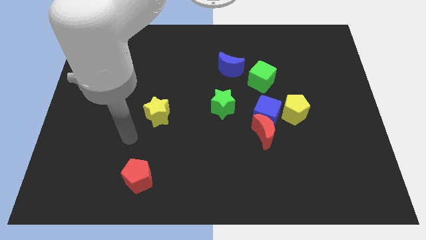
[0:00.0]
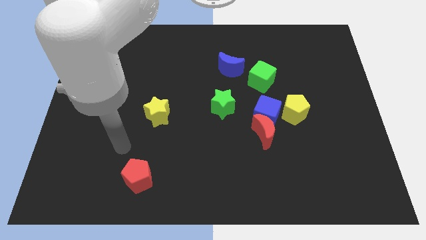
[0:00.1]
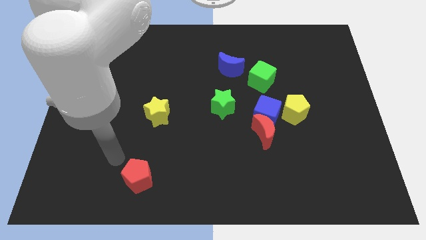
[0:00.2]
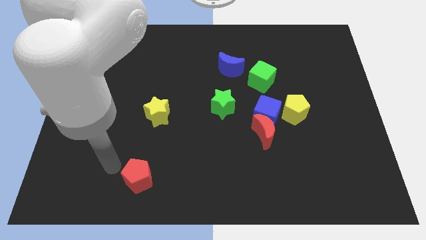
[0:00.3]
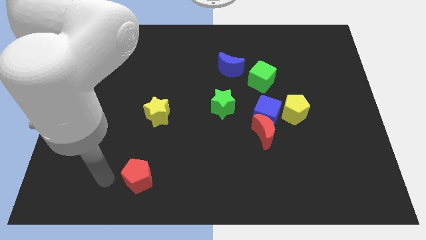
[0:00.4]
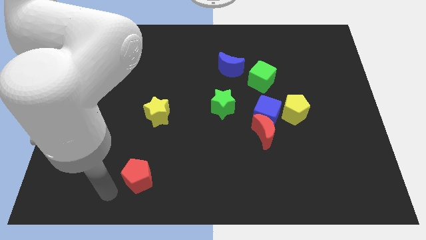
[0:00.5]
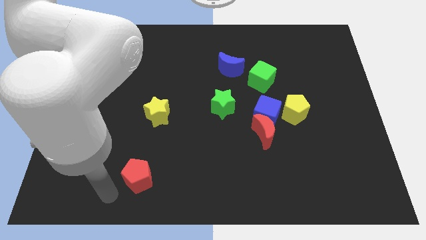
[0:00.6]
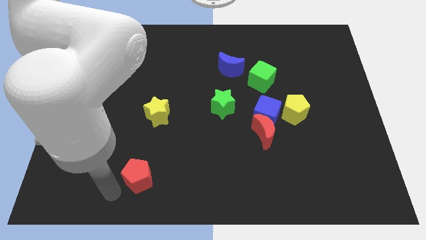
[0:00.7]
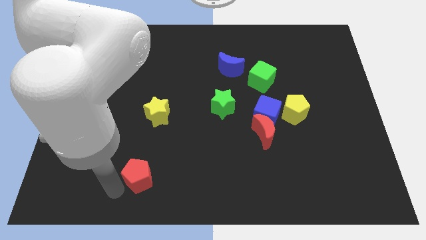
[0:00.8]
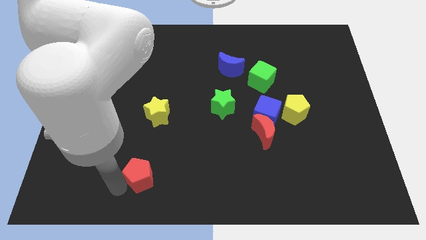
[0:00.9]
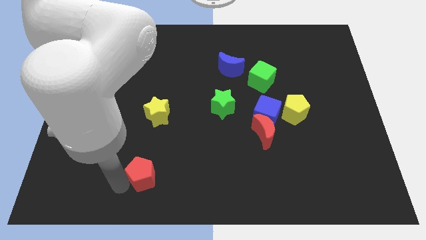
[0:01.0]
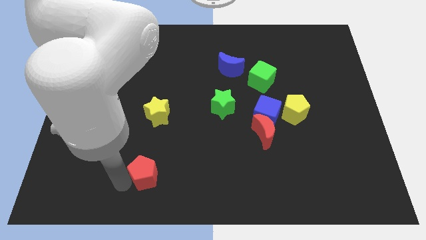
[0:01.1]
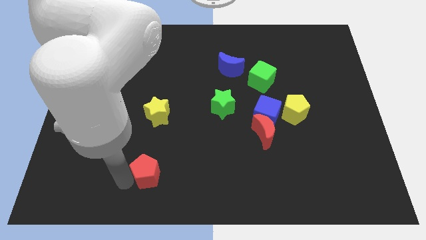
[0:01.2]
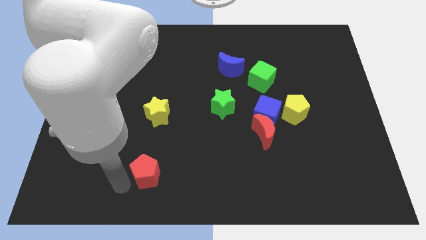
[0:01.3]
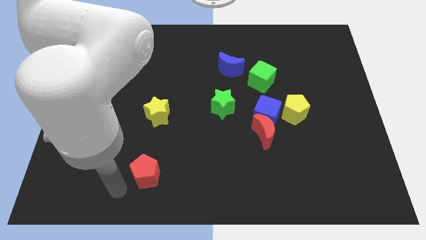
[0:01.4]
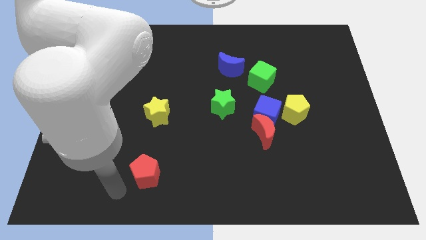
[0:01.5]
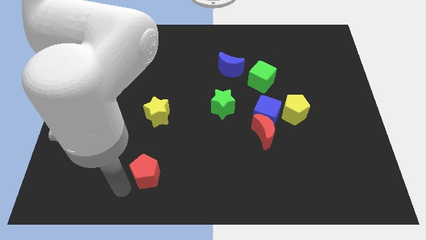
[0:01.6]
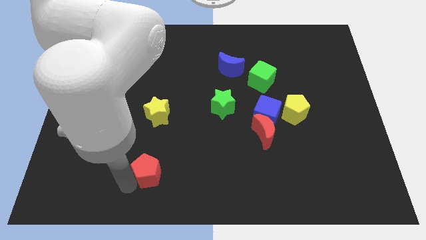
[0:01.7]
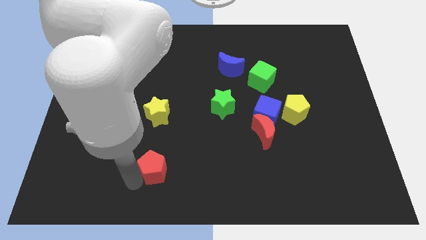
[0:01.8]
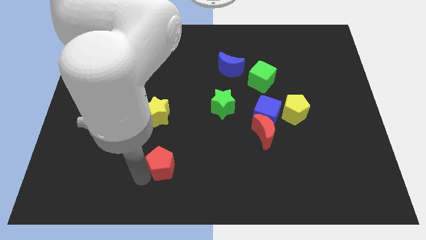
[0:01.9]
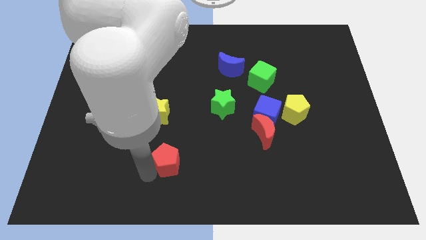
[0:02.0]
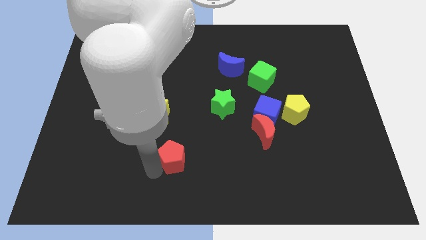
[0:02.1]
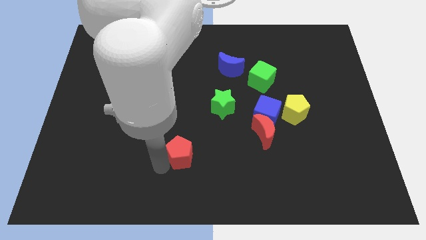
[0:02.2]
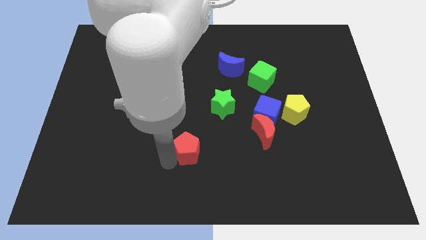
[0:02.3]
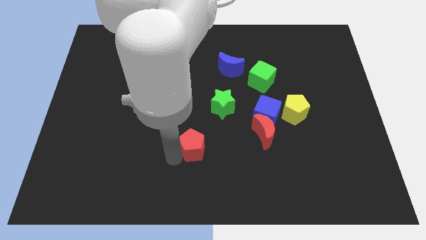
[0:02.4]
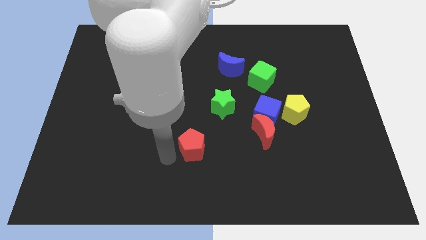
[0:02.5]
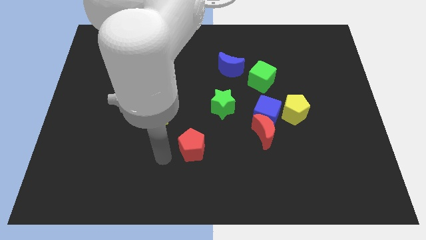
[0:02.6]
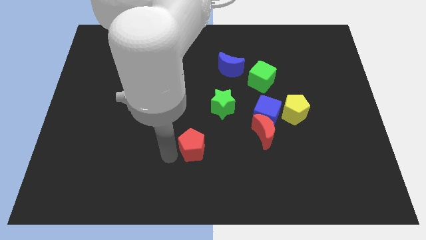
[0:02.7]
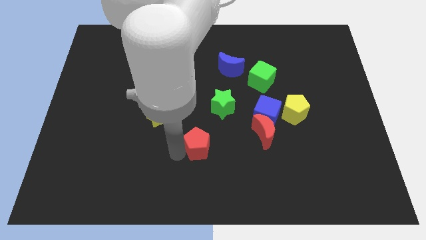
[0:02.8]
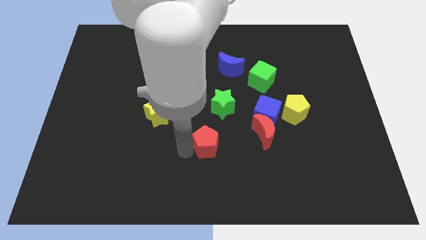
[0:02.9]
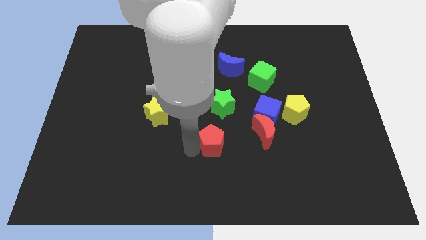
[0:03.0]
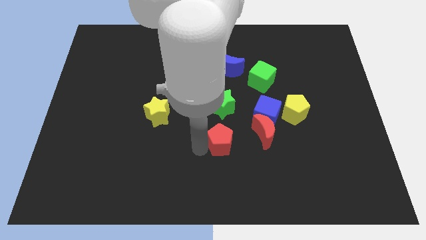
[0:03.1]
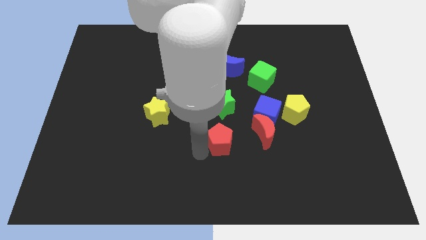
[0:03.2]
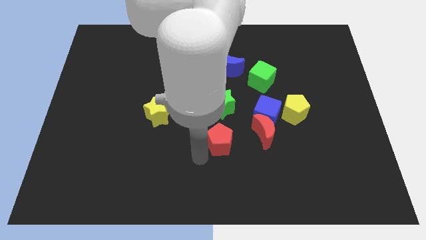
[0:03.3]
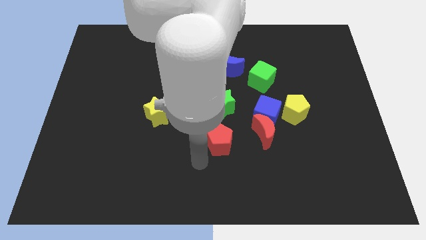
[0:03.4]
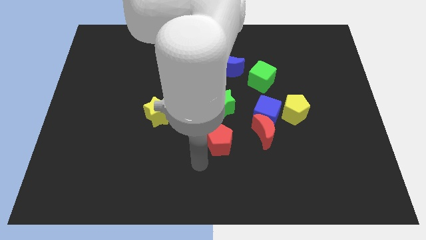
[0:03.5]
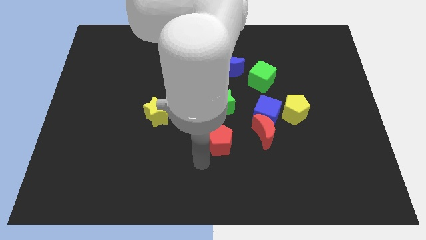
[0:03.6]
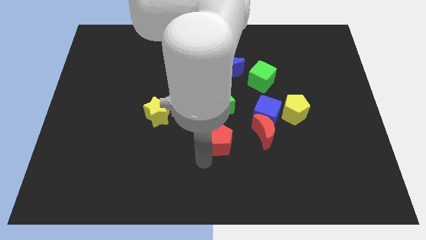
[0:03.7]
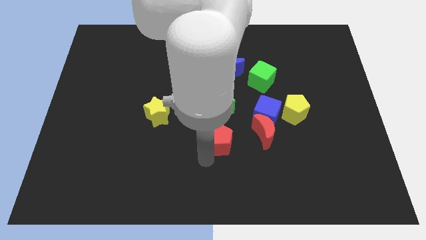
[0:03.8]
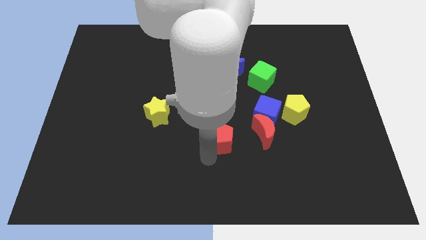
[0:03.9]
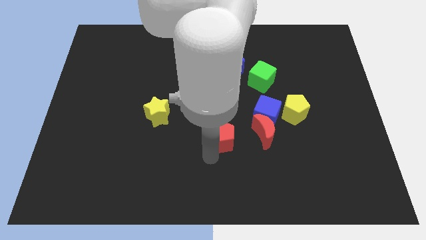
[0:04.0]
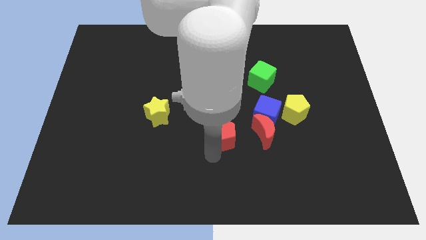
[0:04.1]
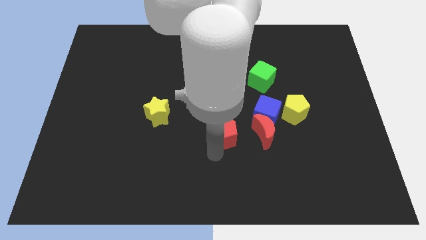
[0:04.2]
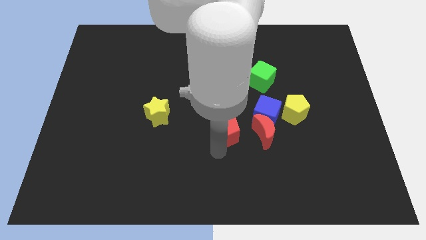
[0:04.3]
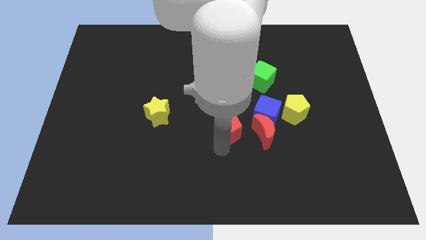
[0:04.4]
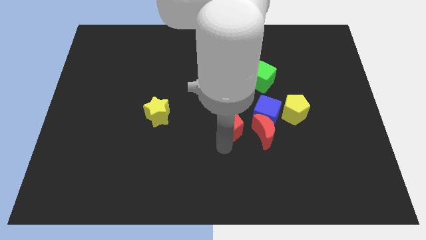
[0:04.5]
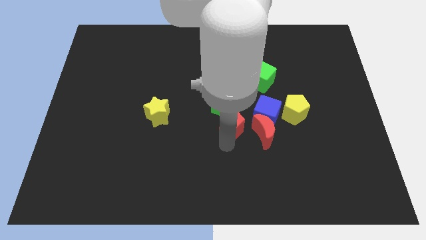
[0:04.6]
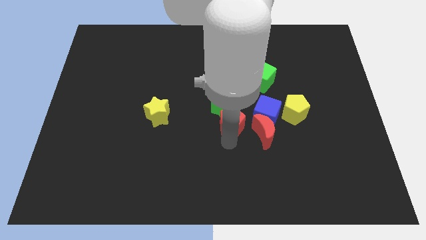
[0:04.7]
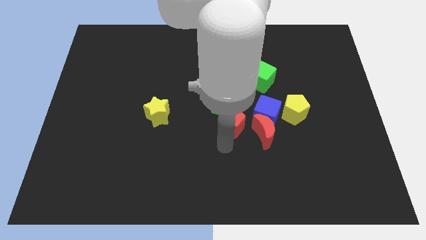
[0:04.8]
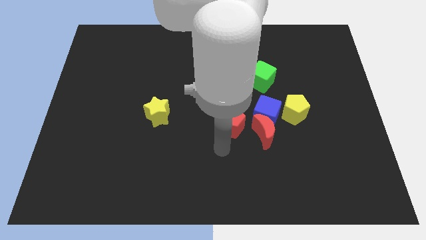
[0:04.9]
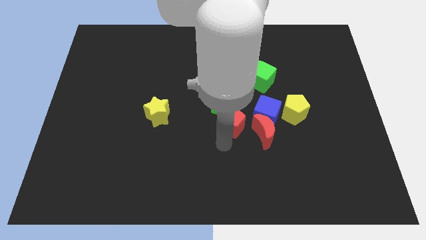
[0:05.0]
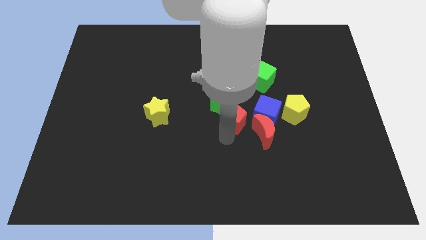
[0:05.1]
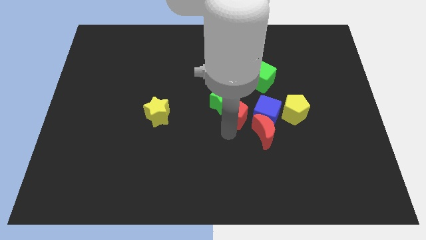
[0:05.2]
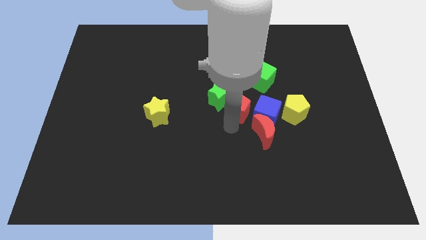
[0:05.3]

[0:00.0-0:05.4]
push the red pentagon to the bottom left side of the green cube

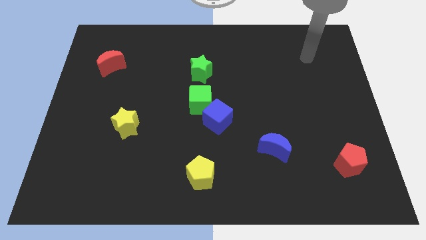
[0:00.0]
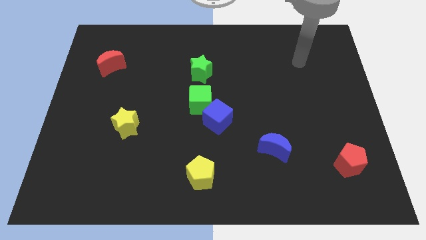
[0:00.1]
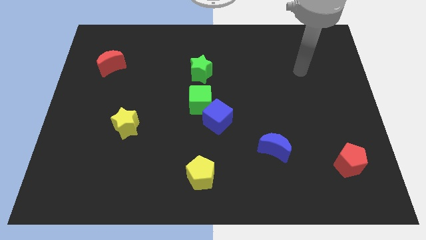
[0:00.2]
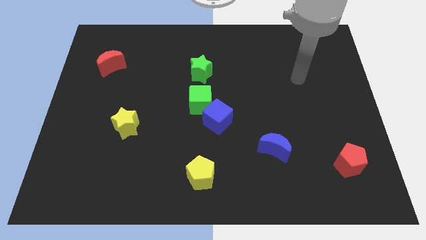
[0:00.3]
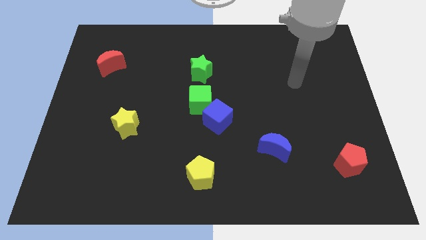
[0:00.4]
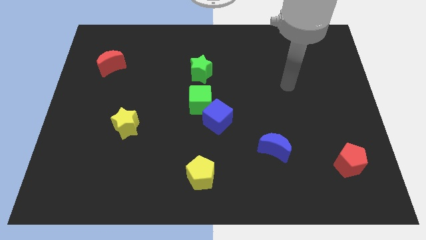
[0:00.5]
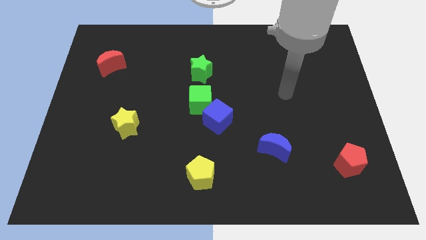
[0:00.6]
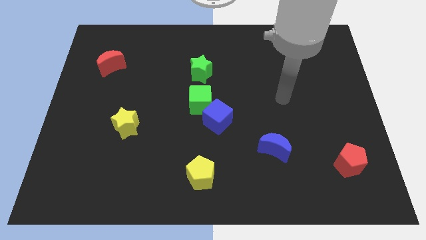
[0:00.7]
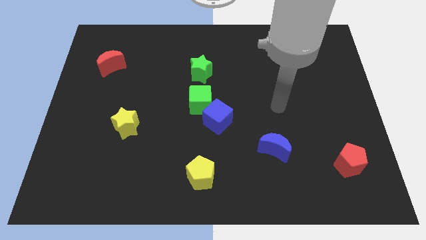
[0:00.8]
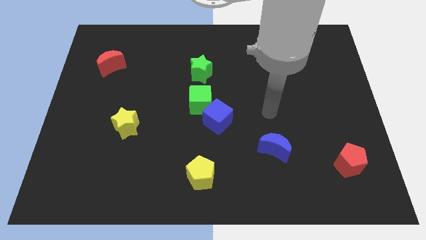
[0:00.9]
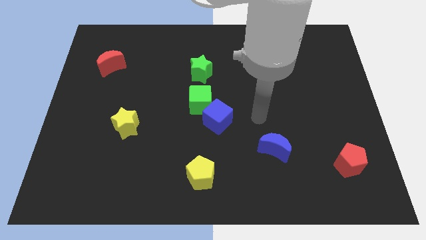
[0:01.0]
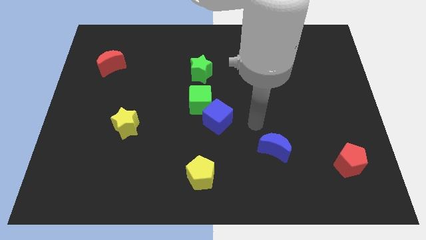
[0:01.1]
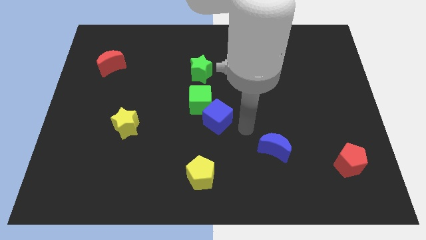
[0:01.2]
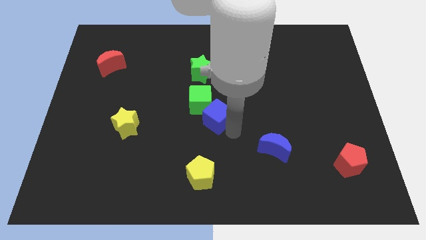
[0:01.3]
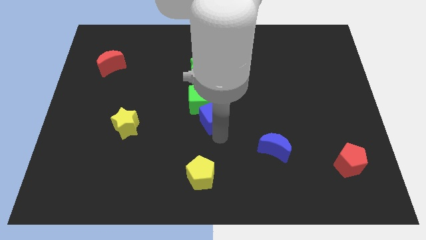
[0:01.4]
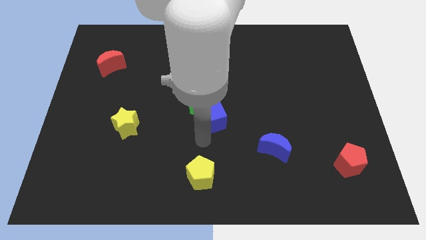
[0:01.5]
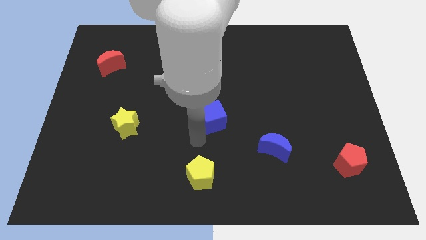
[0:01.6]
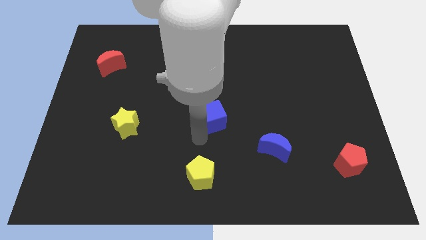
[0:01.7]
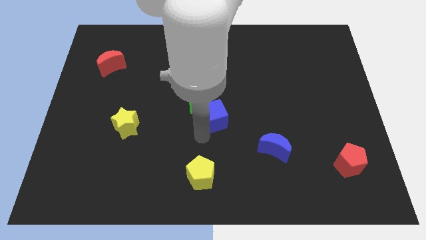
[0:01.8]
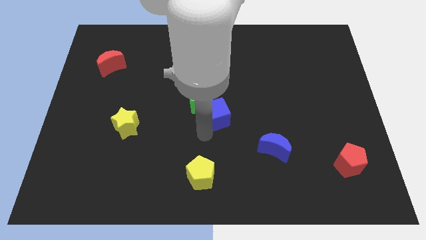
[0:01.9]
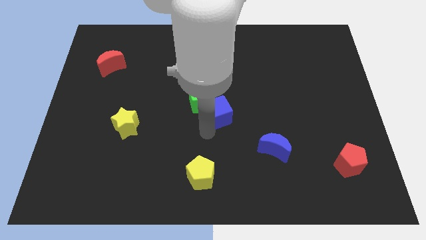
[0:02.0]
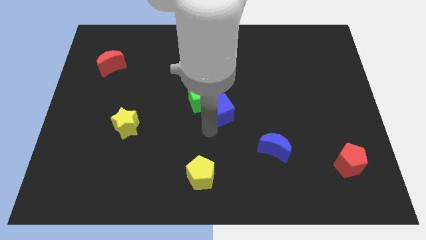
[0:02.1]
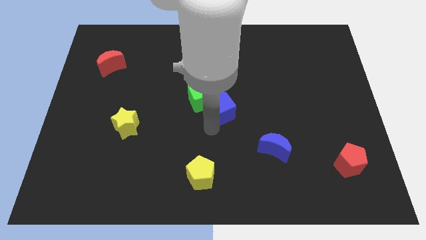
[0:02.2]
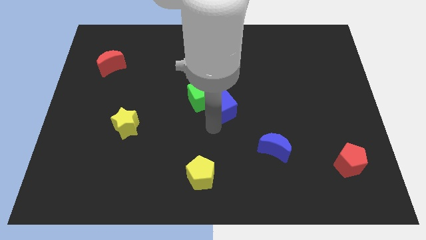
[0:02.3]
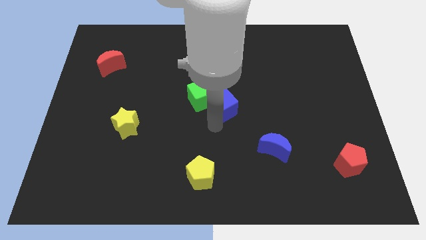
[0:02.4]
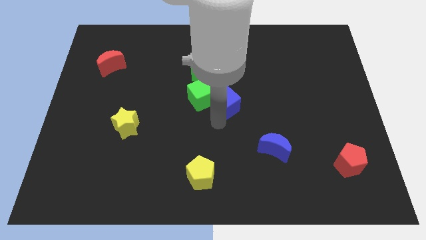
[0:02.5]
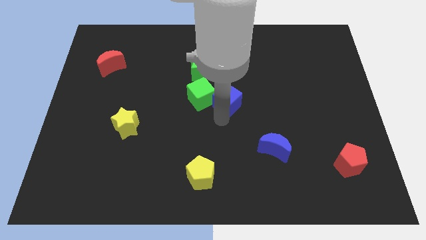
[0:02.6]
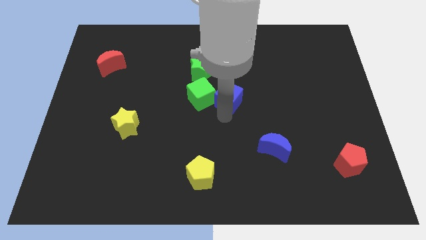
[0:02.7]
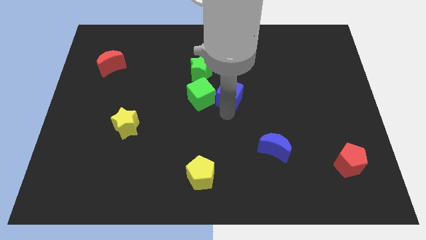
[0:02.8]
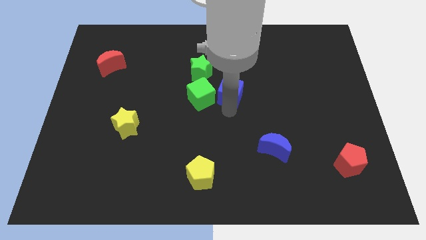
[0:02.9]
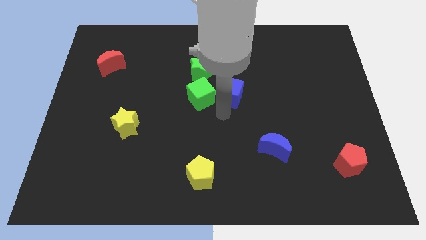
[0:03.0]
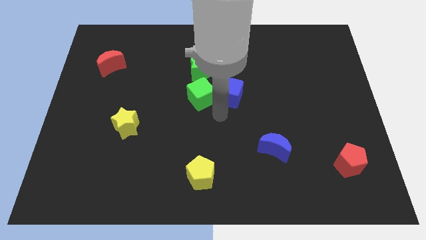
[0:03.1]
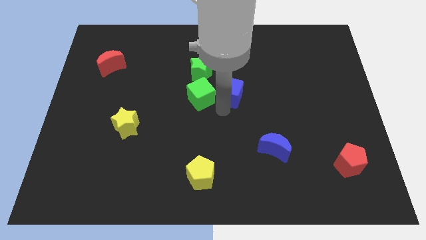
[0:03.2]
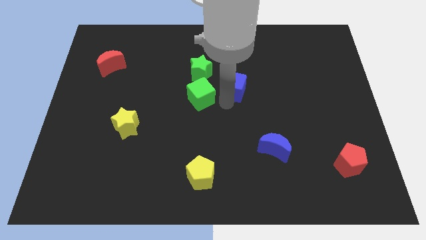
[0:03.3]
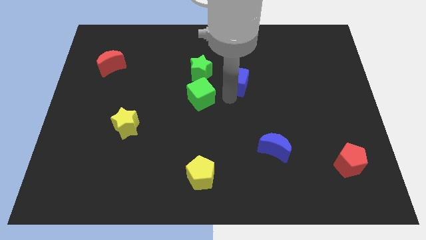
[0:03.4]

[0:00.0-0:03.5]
move the blue cube to the right of the green star
